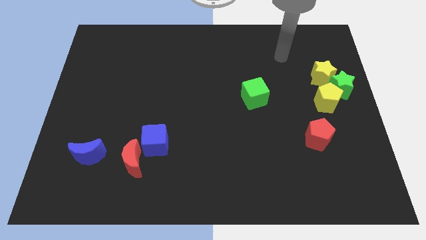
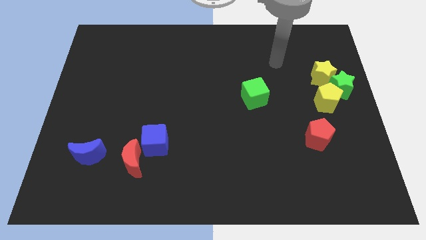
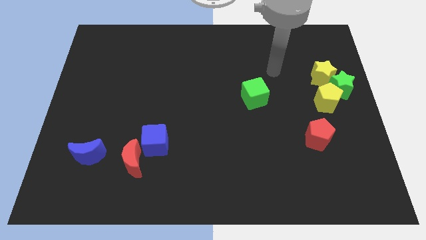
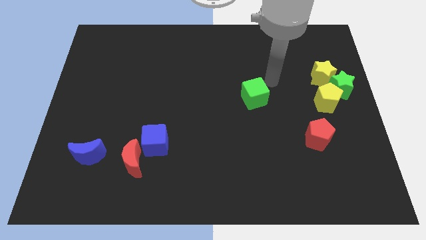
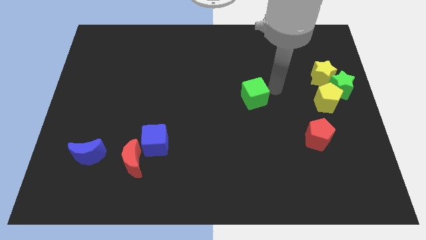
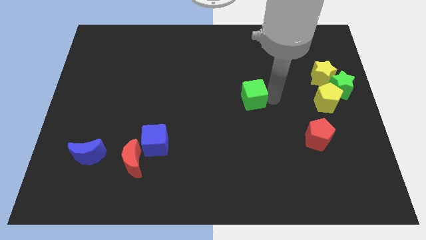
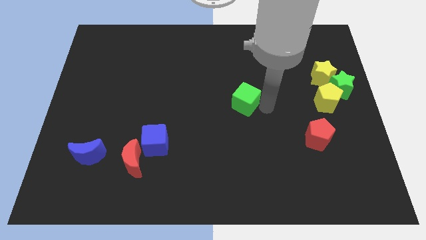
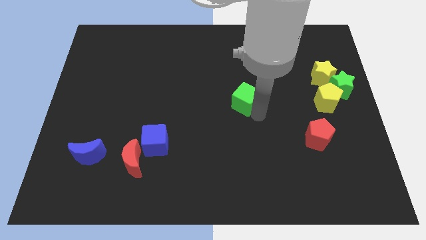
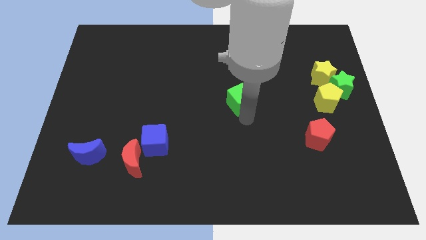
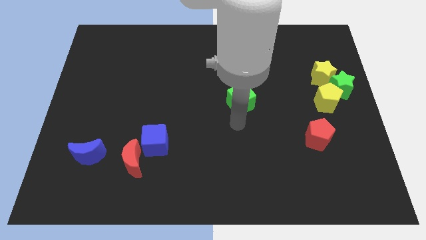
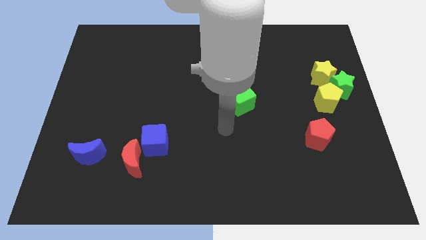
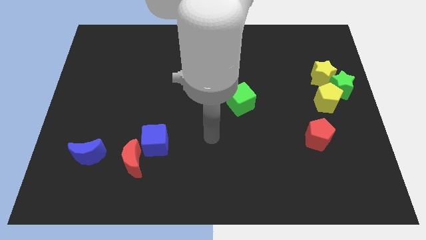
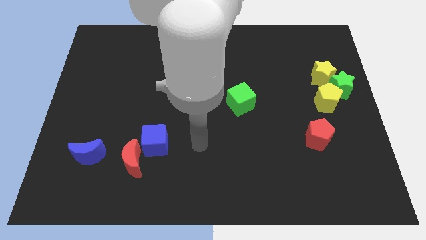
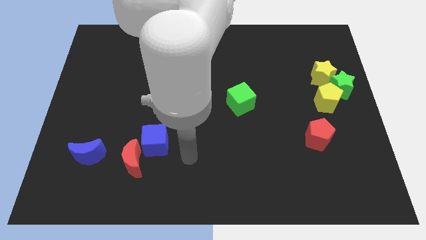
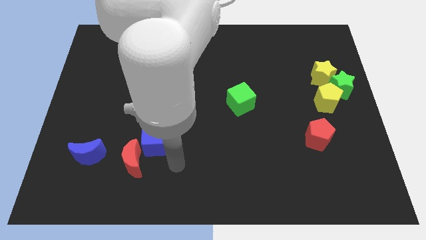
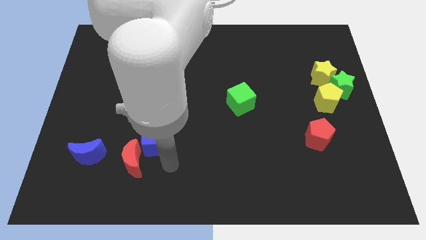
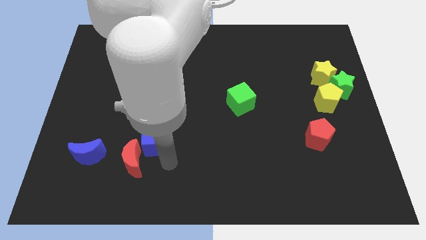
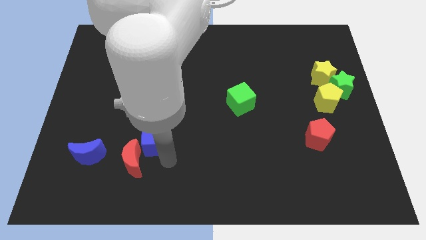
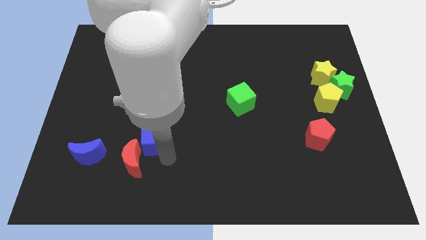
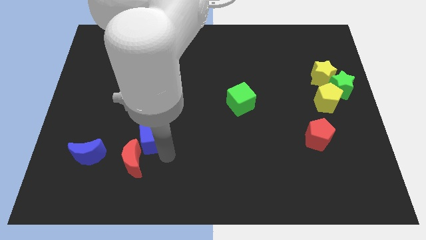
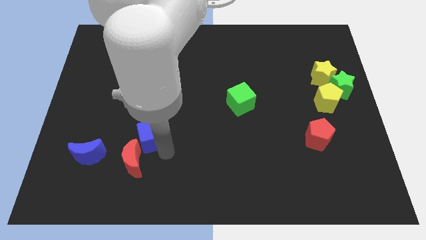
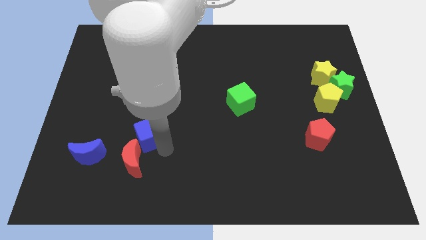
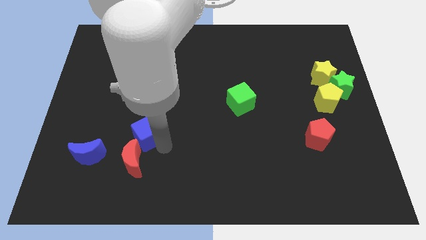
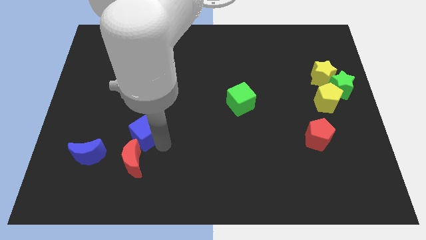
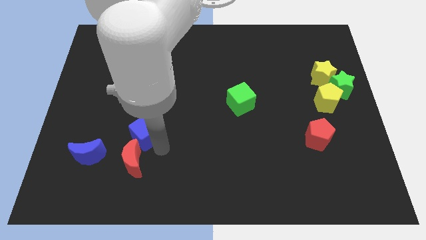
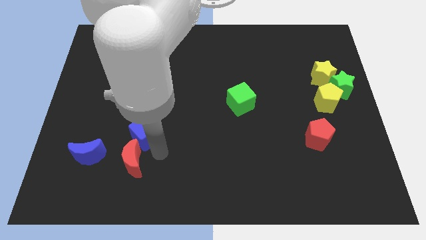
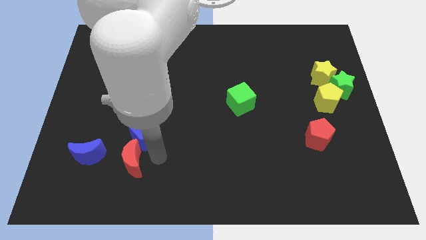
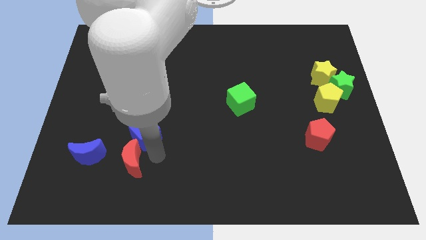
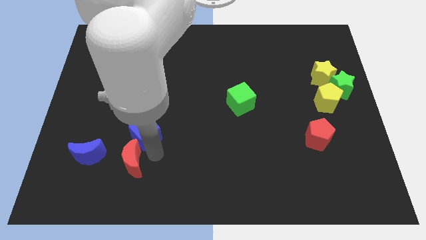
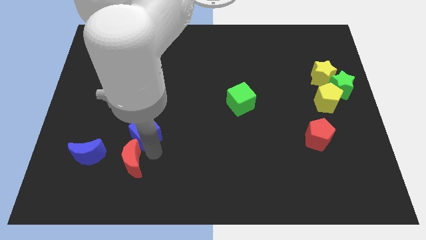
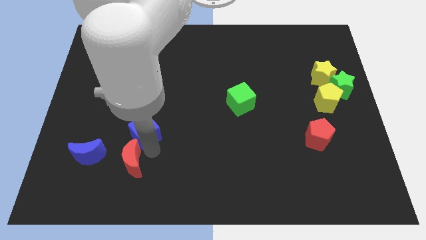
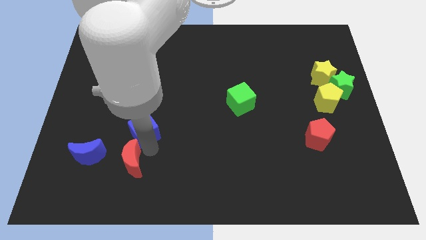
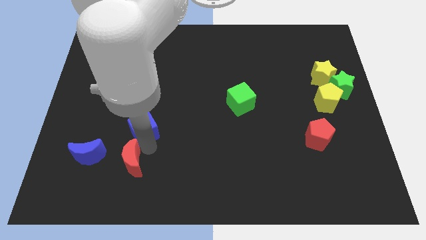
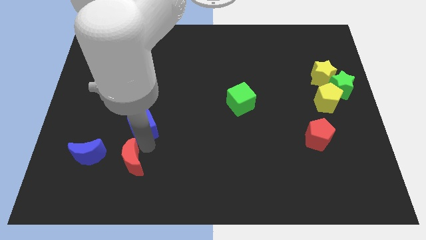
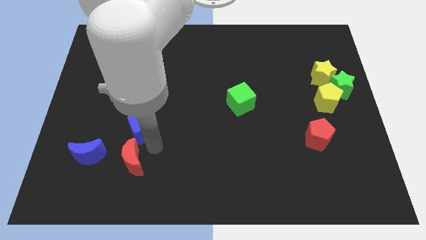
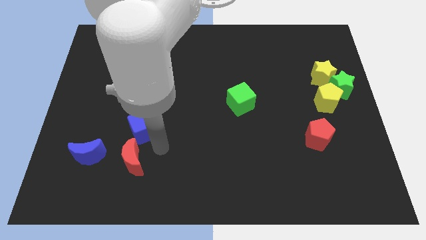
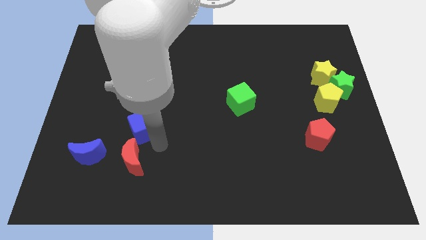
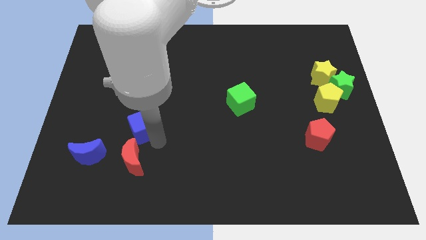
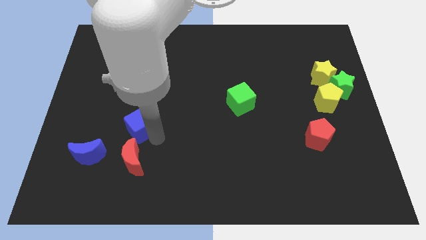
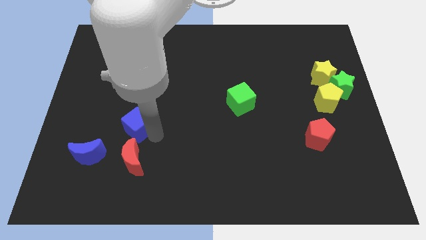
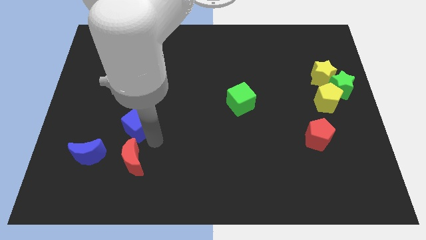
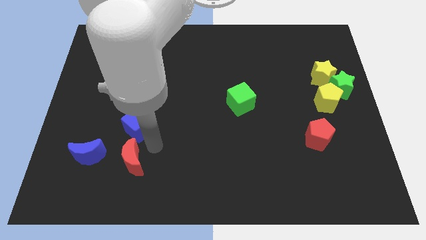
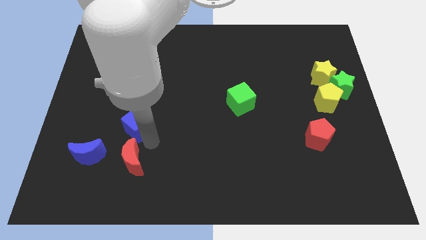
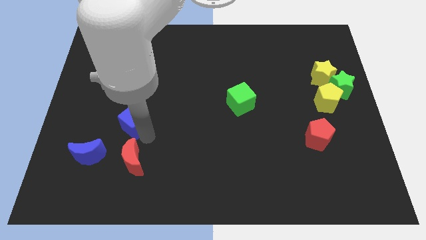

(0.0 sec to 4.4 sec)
move the blue cube a little up and then left

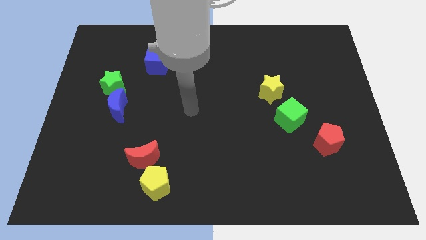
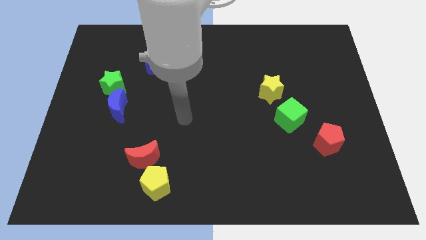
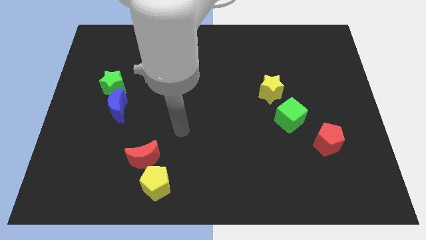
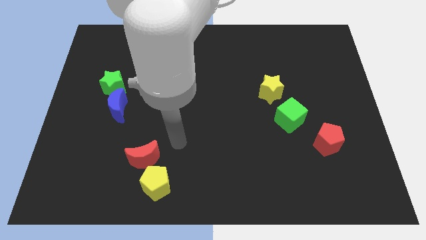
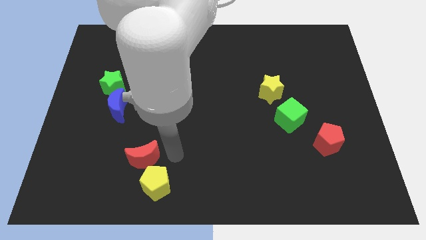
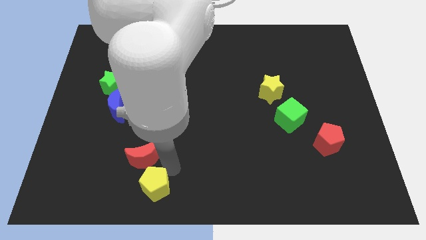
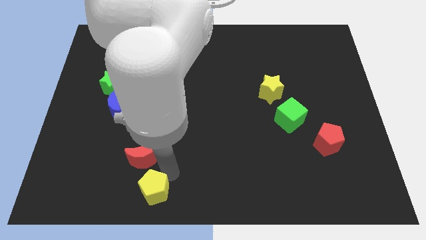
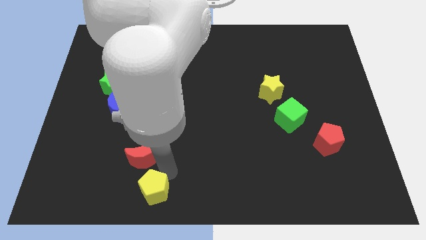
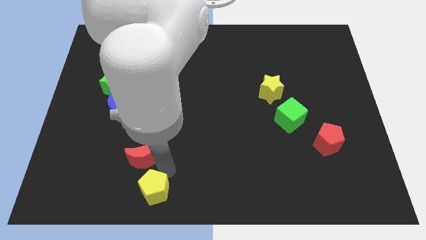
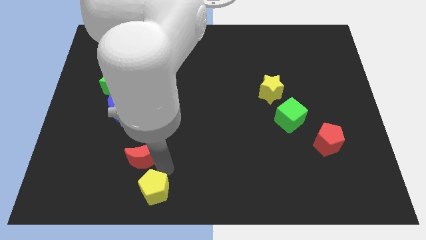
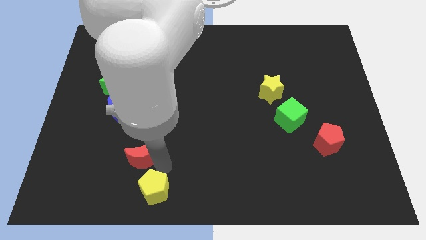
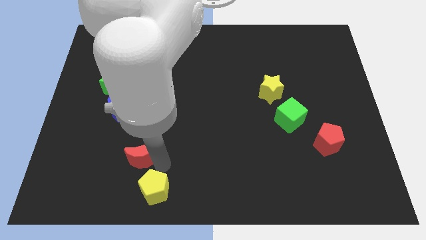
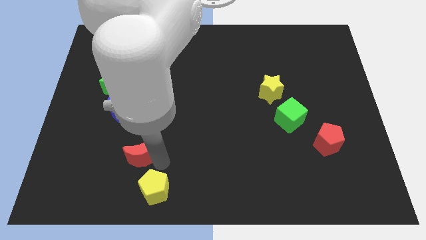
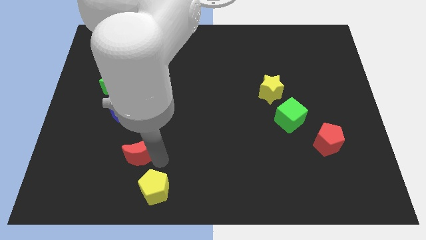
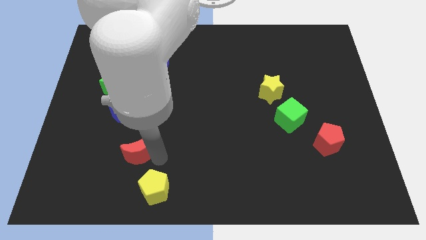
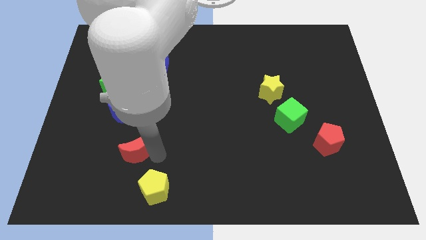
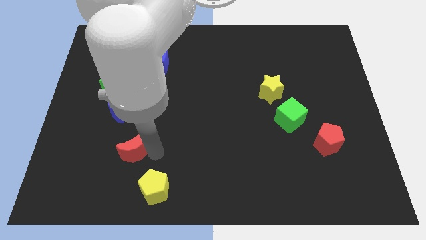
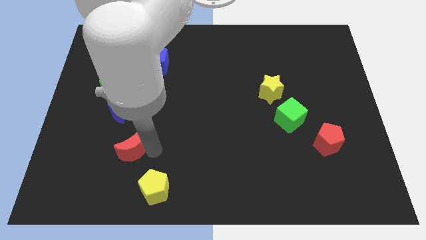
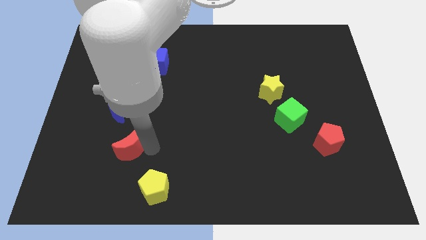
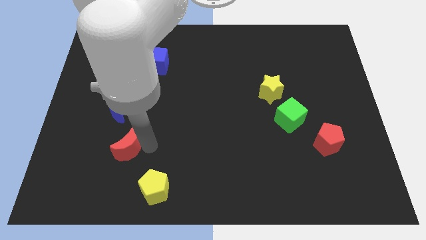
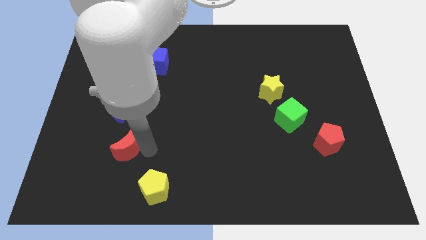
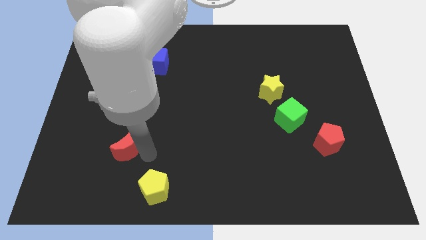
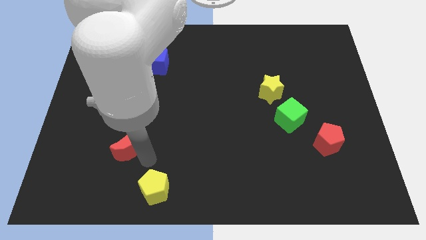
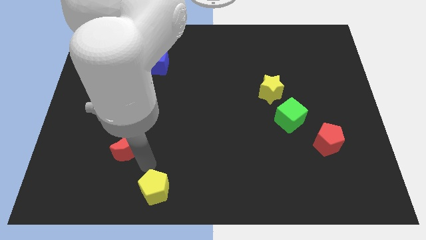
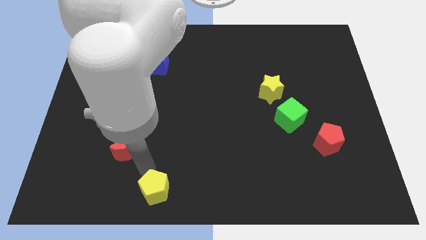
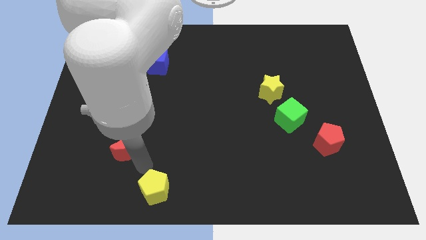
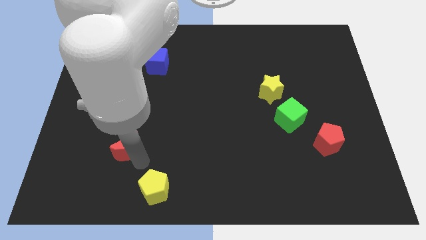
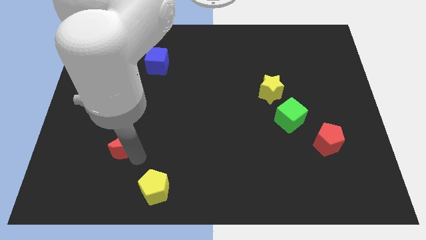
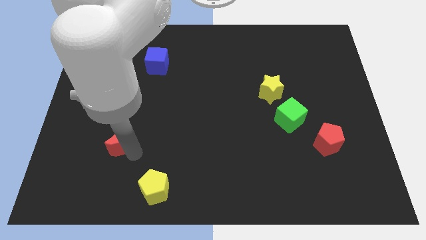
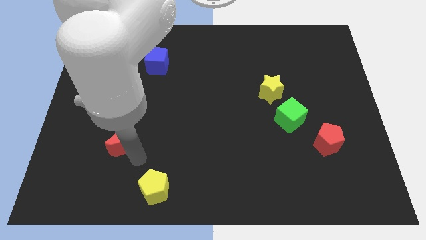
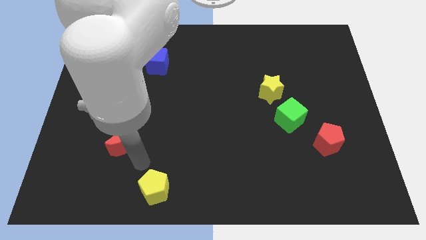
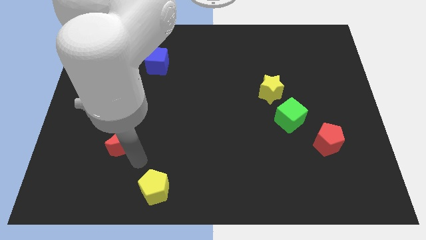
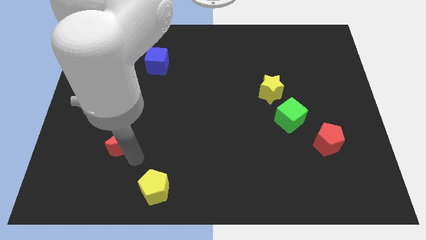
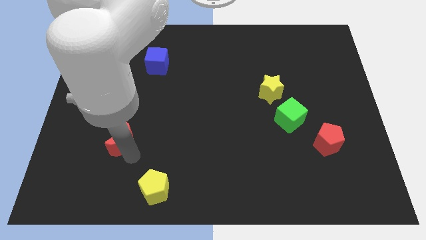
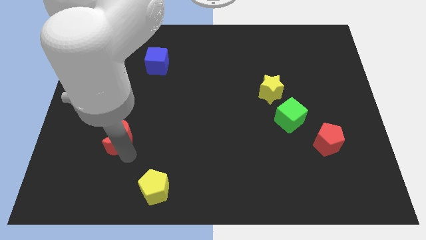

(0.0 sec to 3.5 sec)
slightly push the red moon diagonally up and left

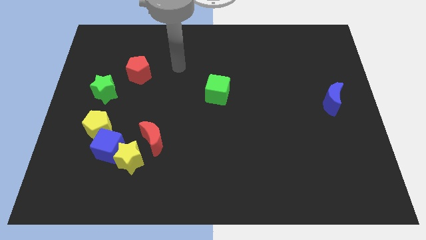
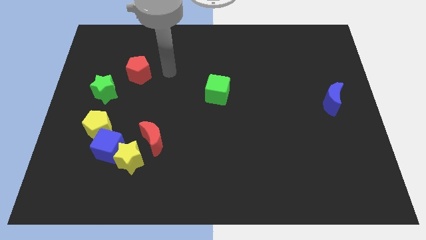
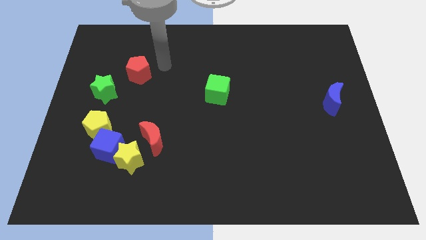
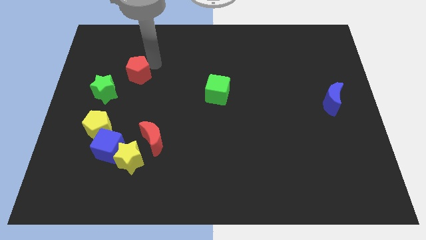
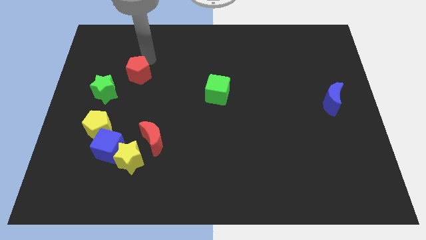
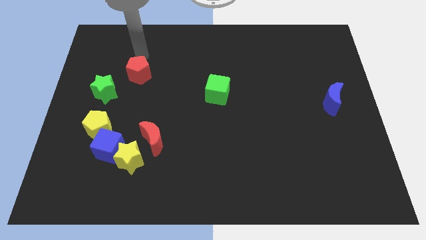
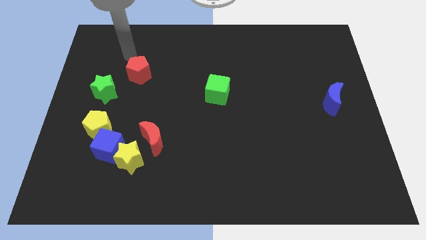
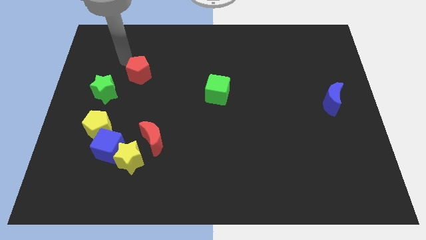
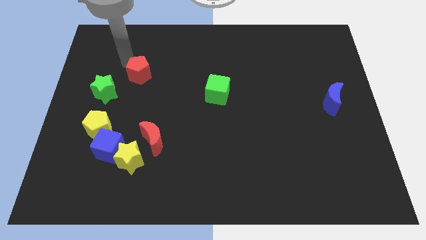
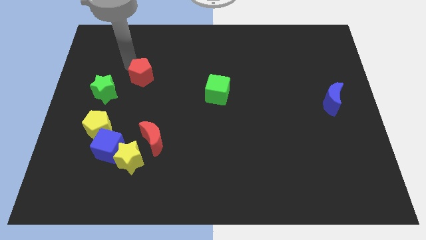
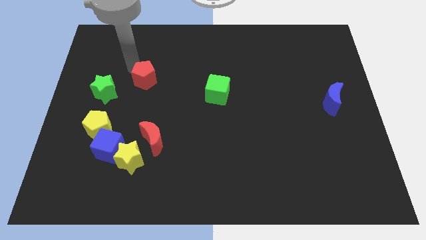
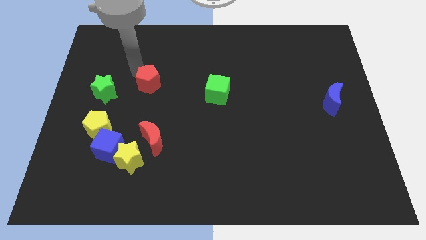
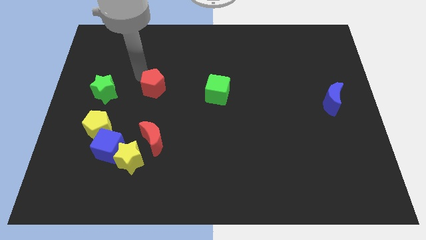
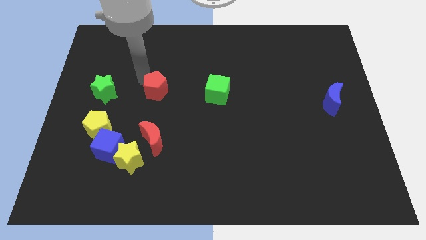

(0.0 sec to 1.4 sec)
move the red pentagon a bit down and then to the right
